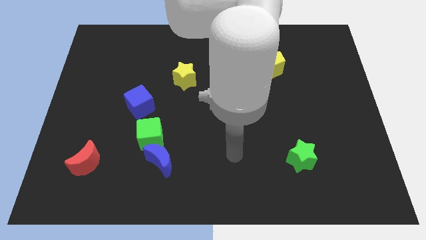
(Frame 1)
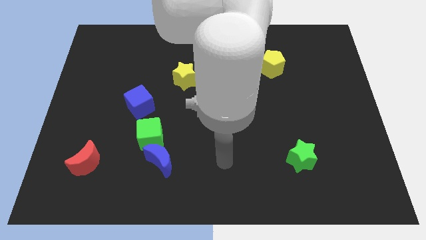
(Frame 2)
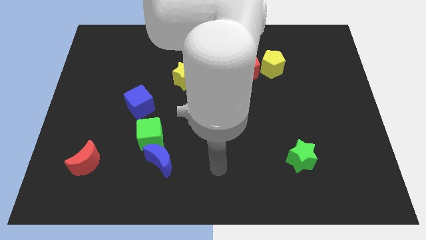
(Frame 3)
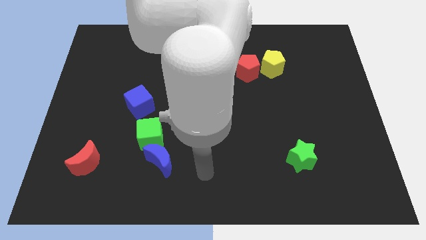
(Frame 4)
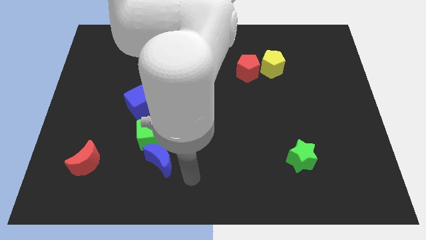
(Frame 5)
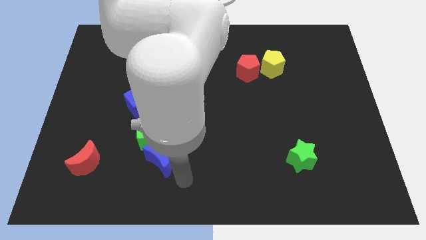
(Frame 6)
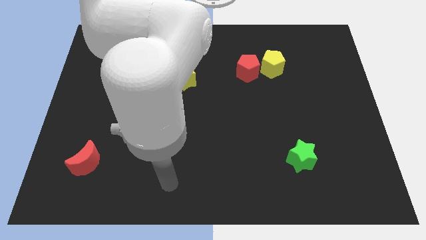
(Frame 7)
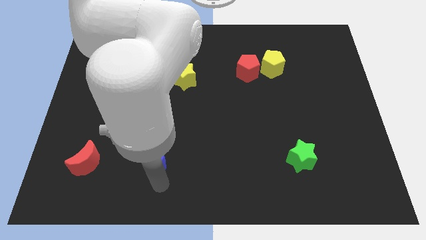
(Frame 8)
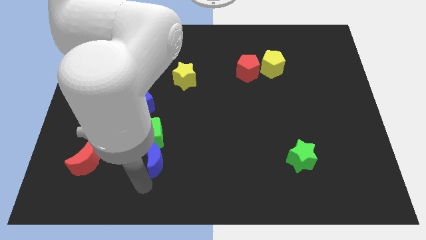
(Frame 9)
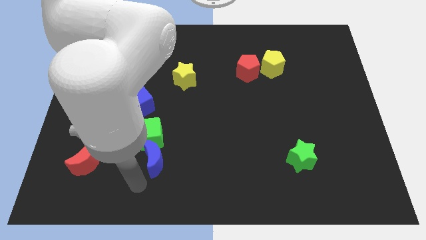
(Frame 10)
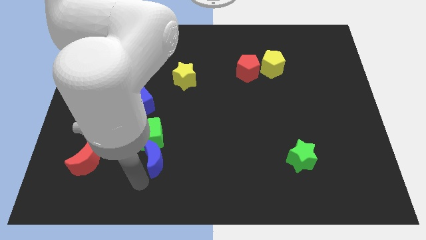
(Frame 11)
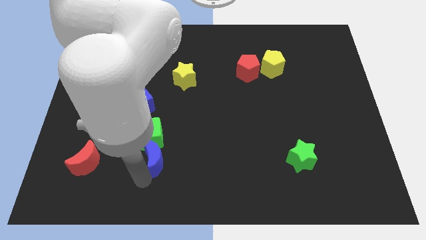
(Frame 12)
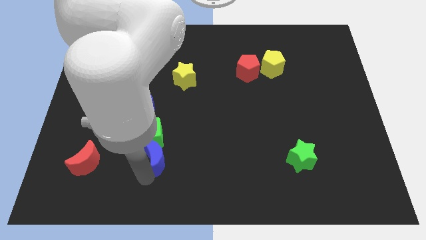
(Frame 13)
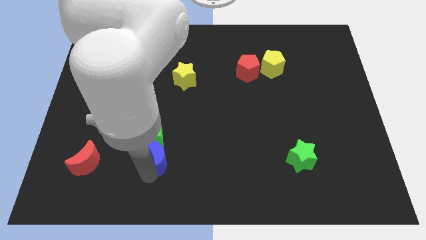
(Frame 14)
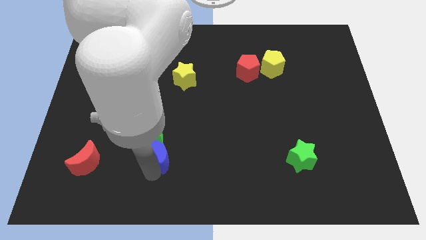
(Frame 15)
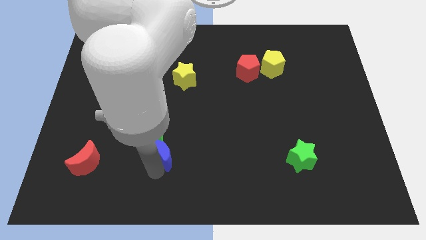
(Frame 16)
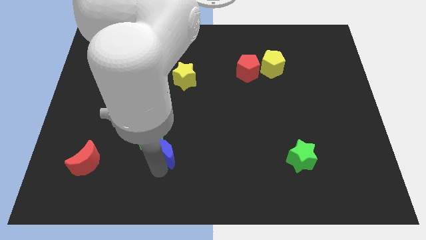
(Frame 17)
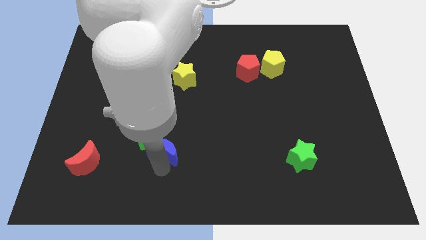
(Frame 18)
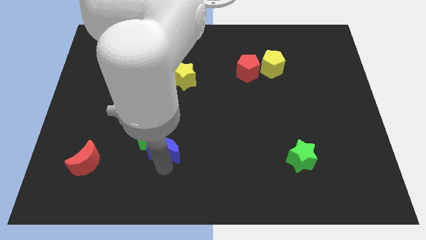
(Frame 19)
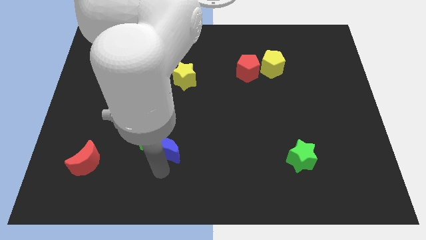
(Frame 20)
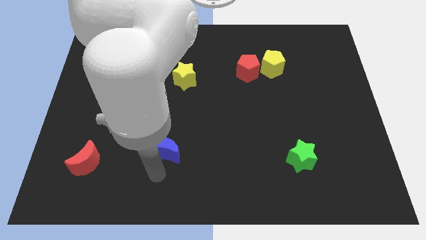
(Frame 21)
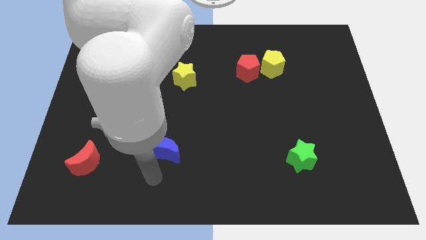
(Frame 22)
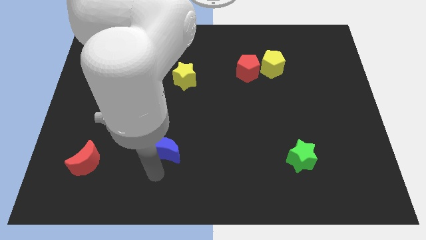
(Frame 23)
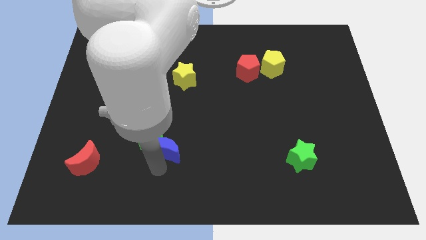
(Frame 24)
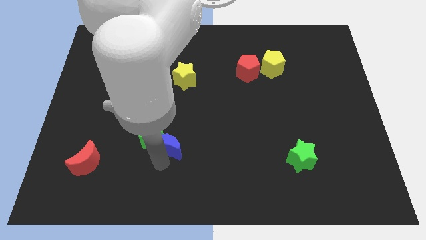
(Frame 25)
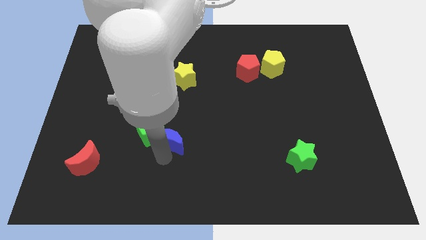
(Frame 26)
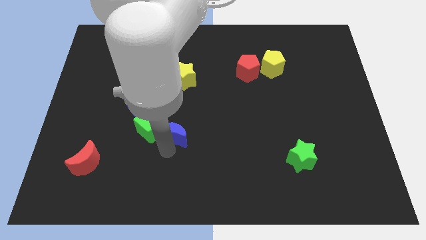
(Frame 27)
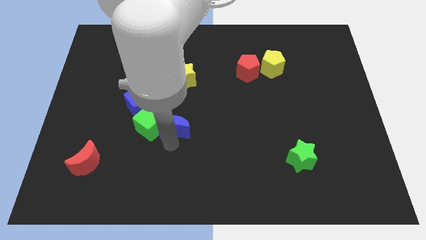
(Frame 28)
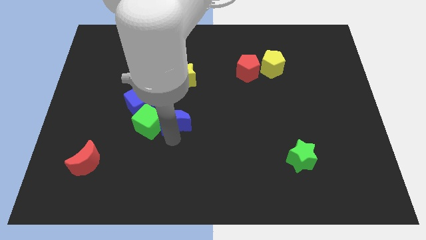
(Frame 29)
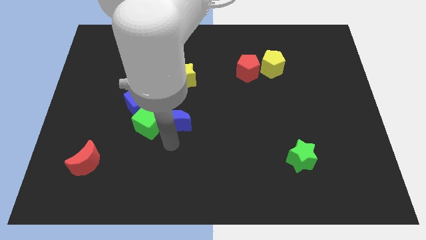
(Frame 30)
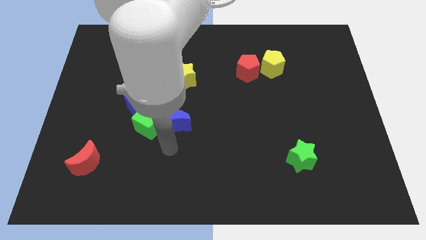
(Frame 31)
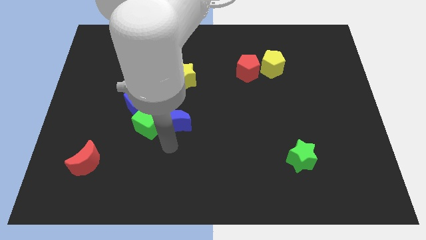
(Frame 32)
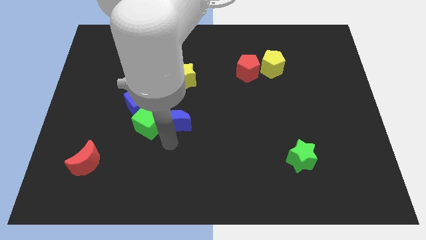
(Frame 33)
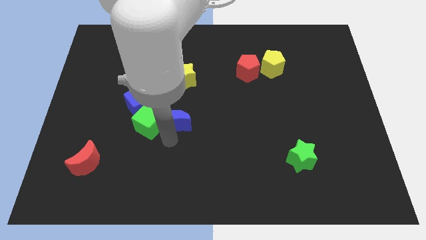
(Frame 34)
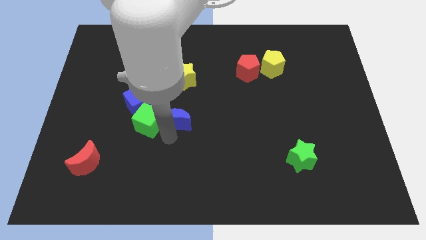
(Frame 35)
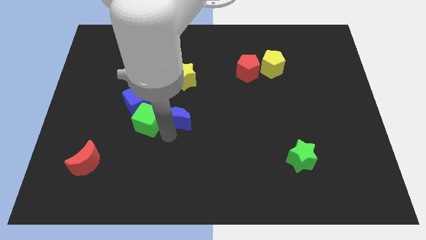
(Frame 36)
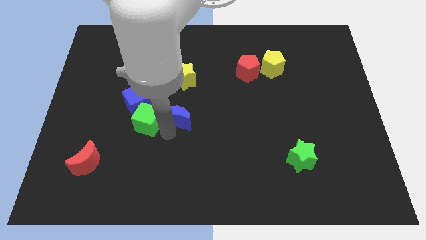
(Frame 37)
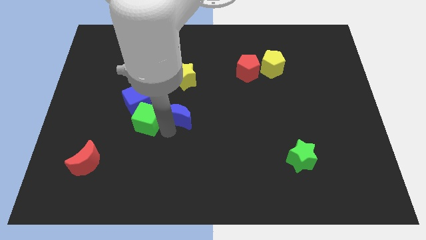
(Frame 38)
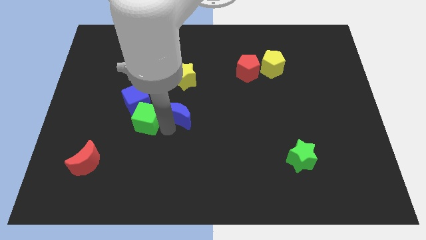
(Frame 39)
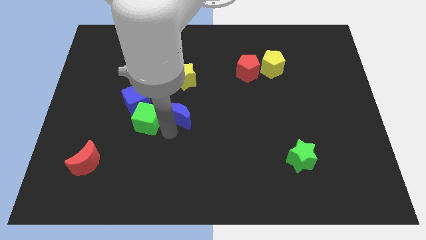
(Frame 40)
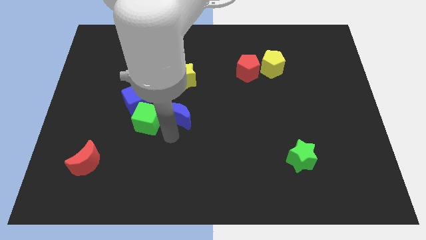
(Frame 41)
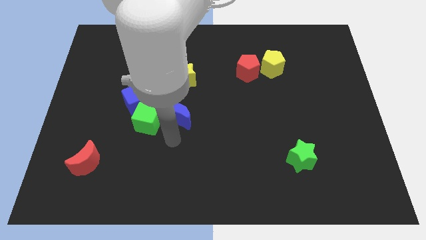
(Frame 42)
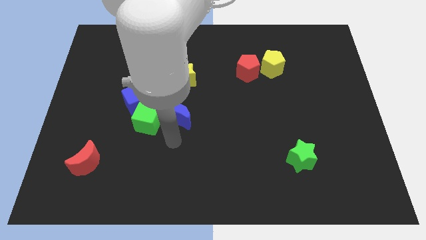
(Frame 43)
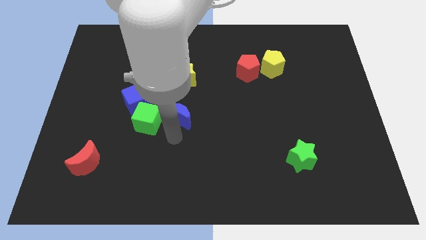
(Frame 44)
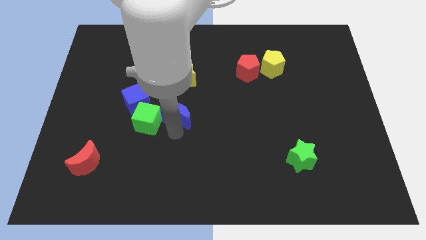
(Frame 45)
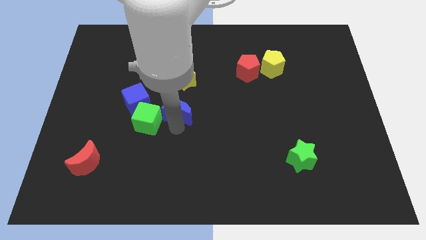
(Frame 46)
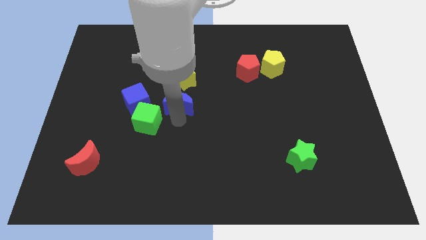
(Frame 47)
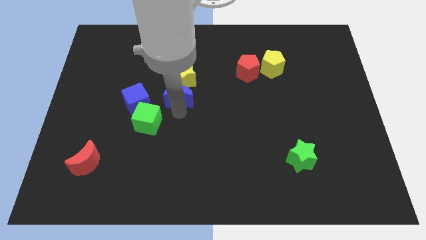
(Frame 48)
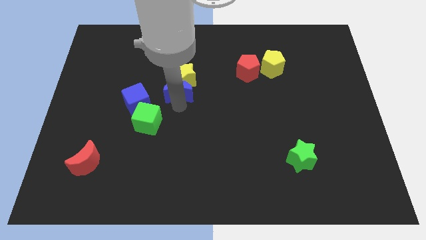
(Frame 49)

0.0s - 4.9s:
put the blue moon next to the yellow star

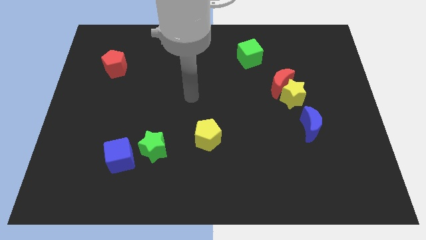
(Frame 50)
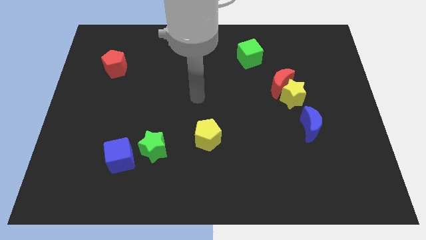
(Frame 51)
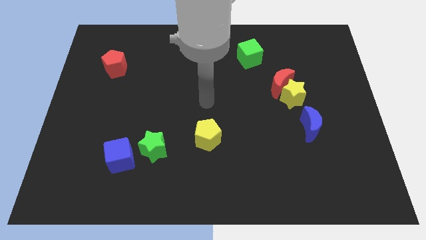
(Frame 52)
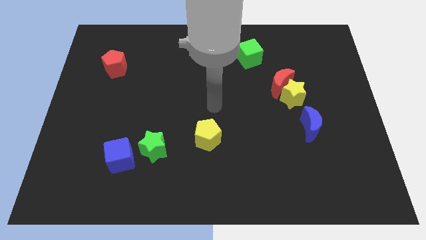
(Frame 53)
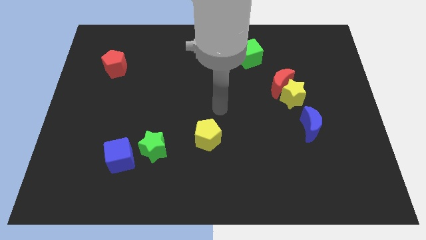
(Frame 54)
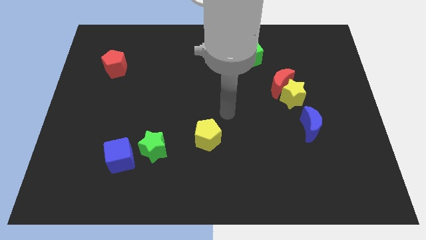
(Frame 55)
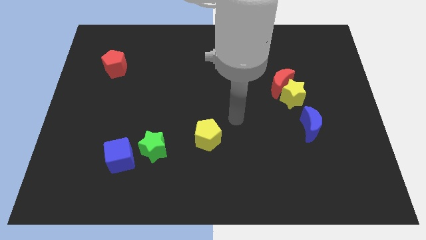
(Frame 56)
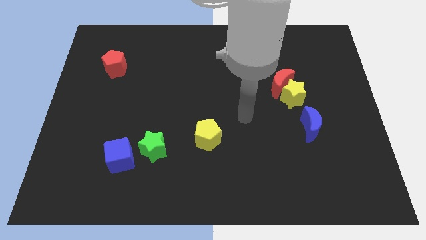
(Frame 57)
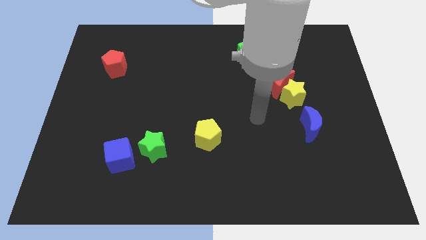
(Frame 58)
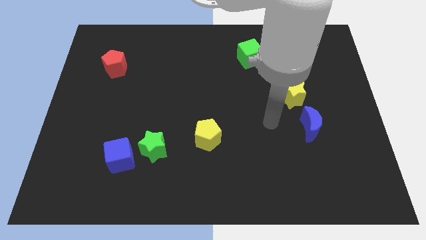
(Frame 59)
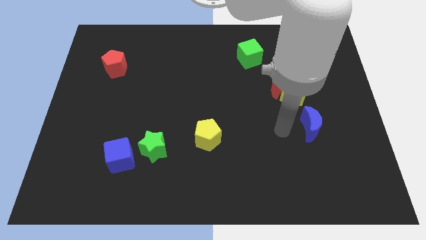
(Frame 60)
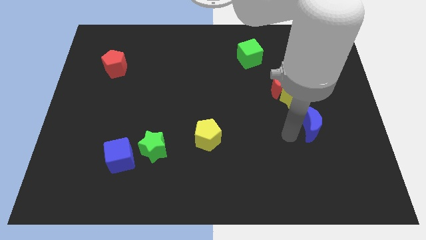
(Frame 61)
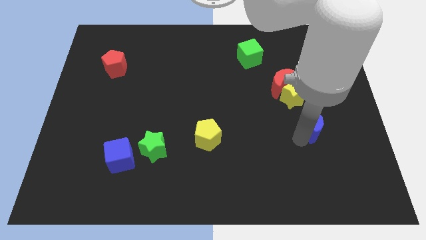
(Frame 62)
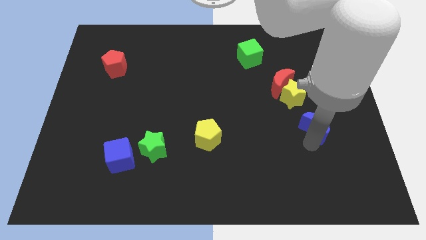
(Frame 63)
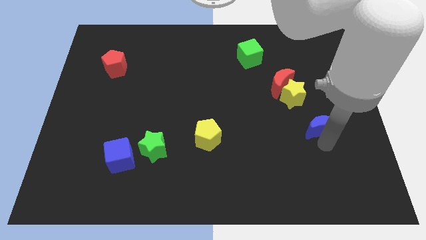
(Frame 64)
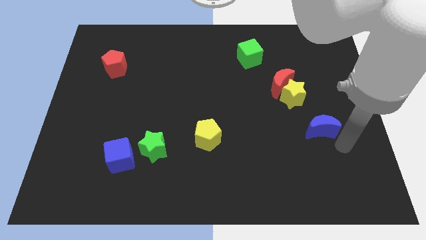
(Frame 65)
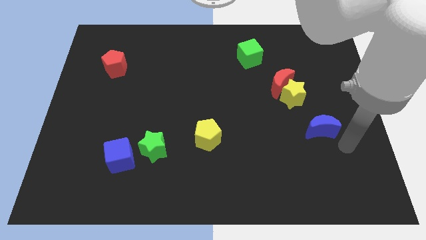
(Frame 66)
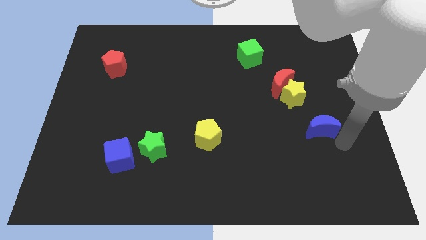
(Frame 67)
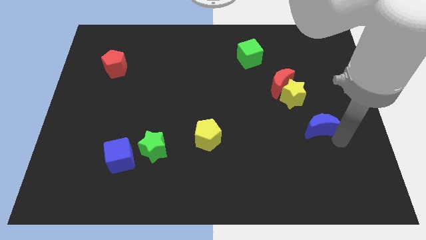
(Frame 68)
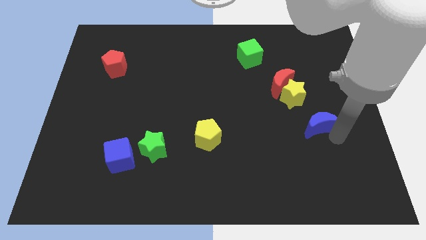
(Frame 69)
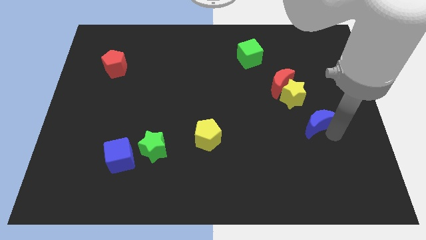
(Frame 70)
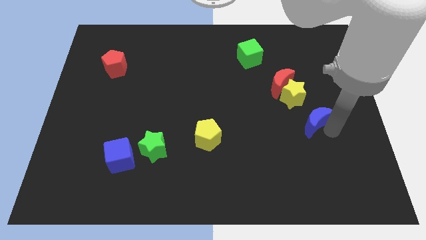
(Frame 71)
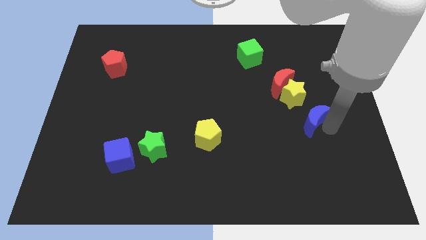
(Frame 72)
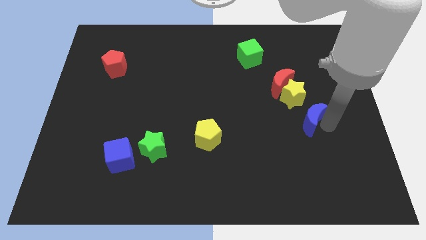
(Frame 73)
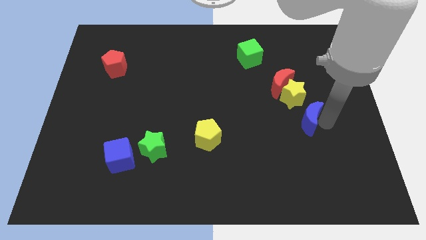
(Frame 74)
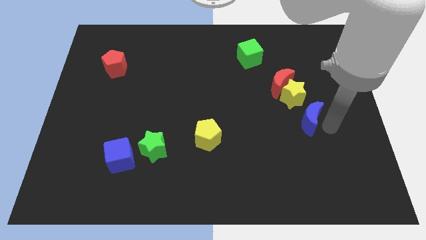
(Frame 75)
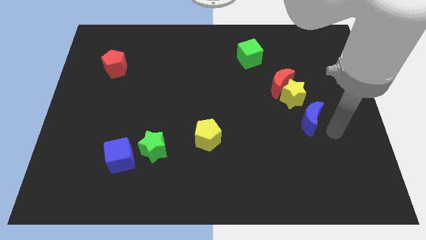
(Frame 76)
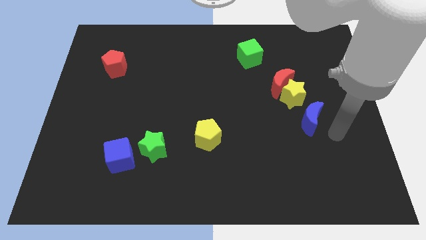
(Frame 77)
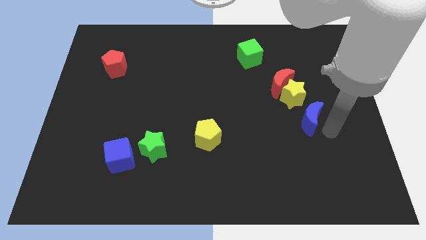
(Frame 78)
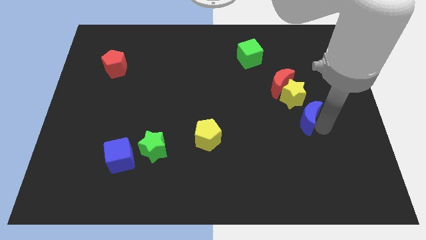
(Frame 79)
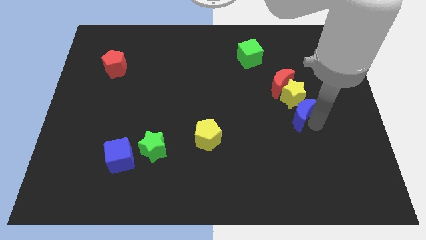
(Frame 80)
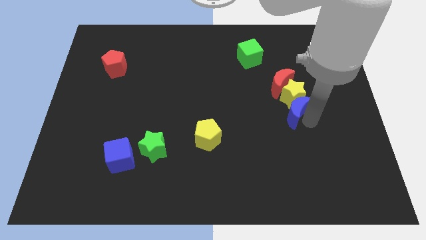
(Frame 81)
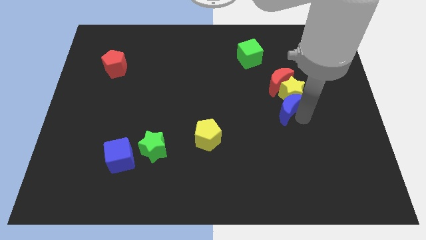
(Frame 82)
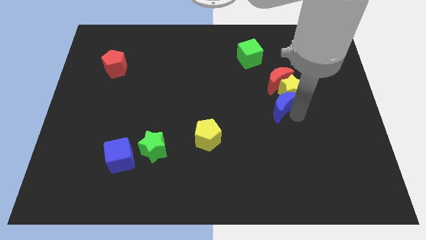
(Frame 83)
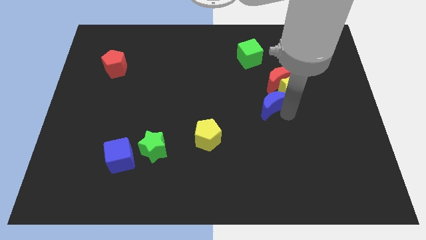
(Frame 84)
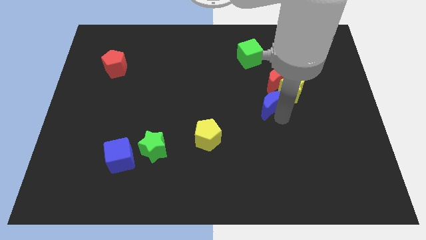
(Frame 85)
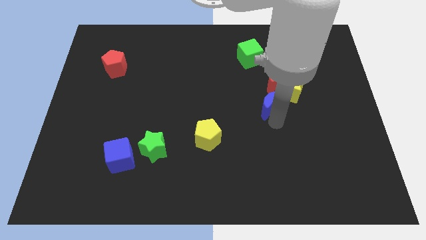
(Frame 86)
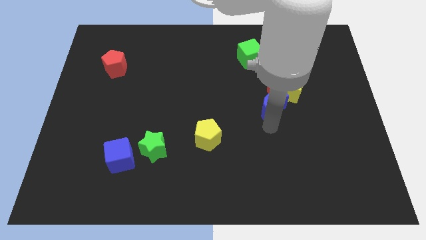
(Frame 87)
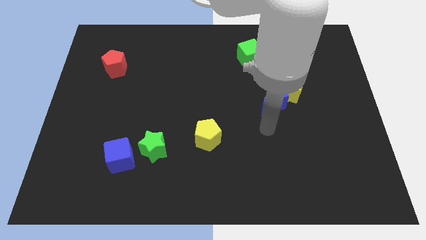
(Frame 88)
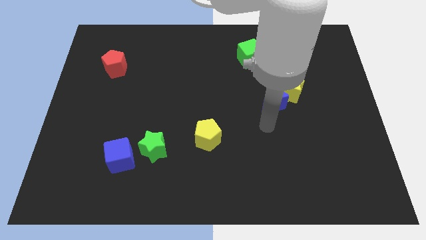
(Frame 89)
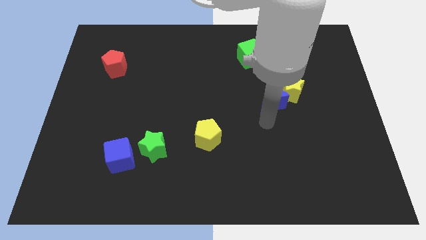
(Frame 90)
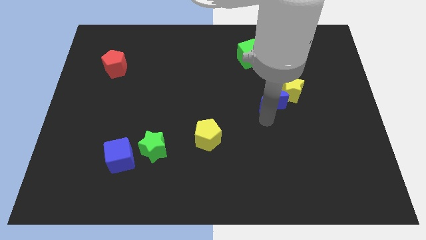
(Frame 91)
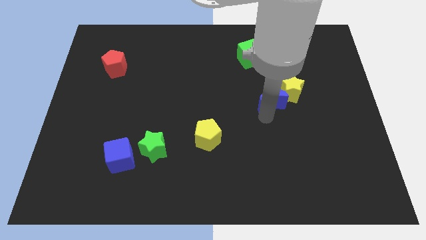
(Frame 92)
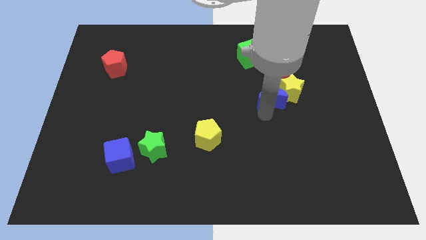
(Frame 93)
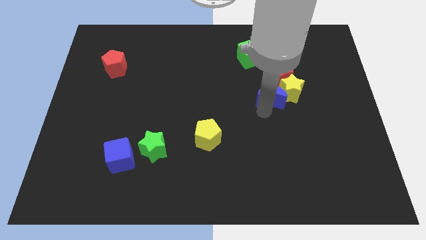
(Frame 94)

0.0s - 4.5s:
put the blue moon next to the red moon
